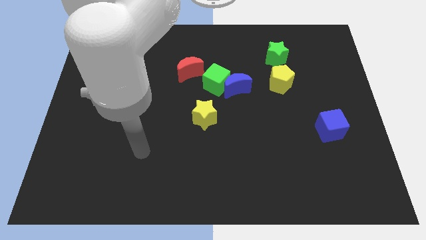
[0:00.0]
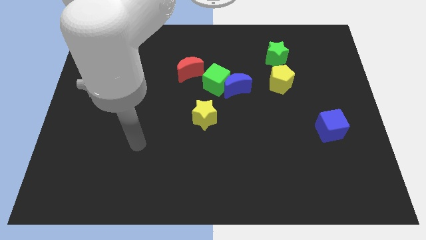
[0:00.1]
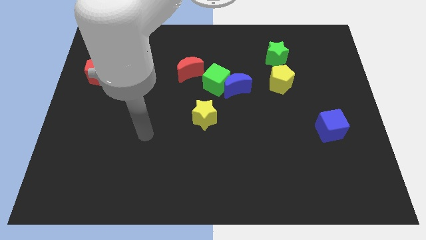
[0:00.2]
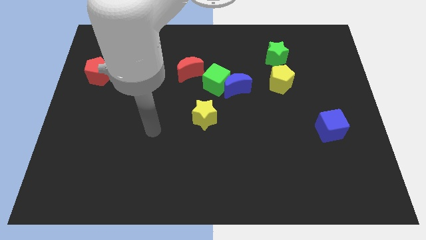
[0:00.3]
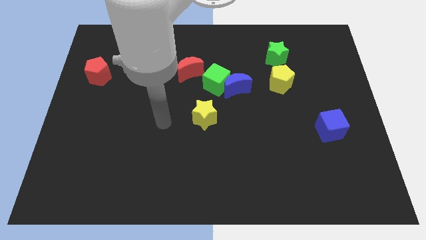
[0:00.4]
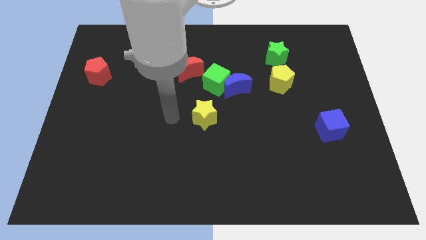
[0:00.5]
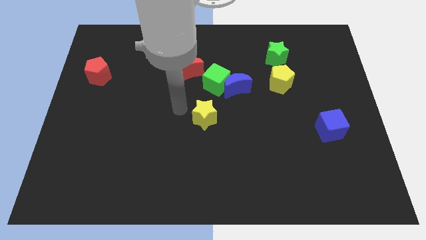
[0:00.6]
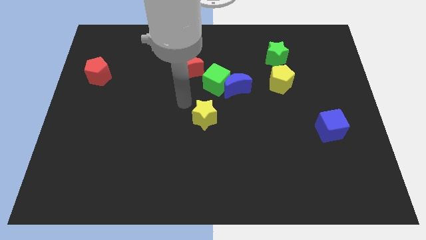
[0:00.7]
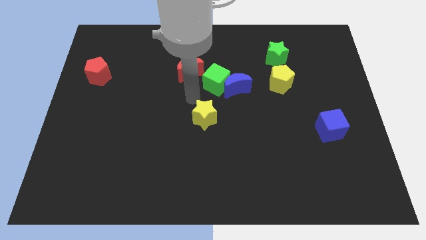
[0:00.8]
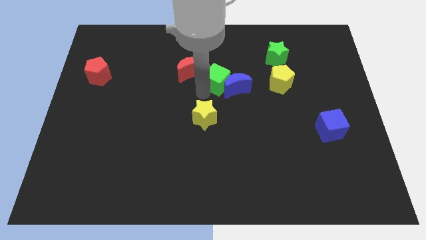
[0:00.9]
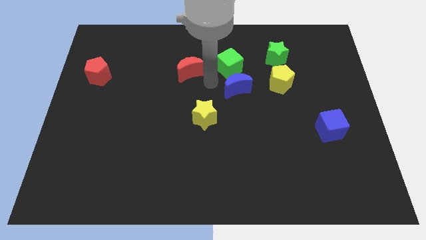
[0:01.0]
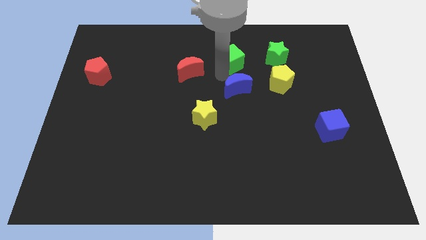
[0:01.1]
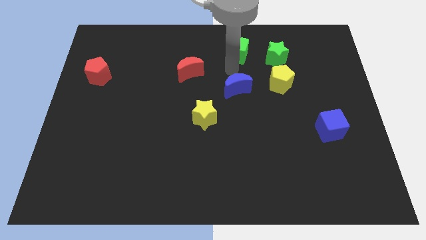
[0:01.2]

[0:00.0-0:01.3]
pull the blue moon apart from the green cube

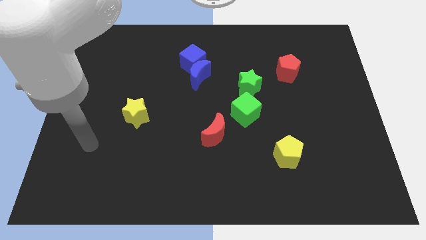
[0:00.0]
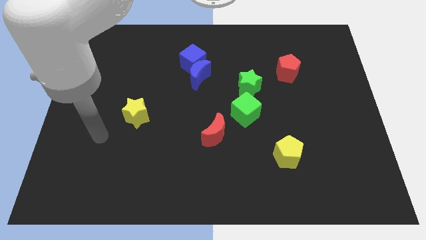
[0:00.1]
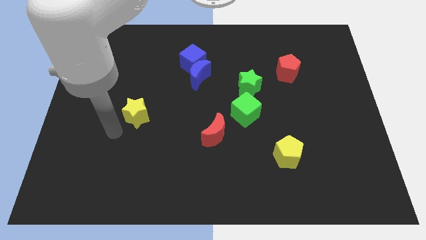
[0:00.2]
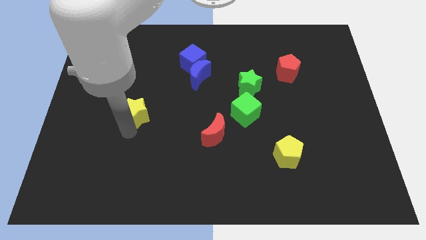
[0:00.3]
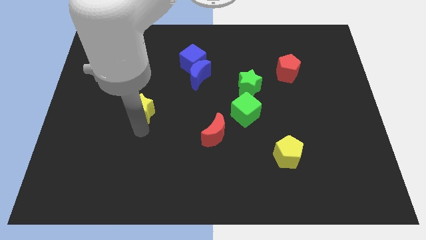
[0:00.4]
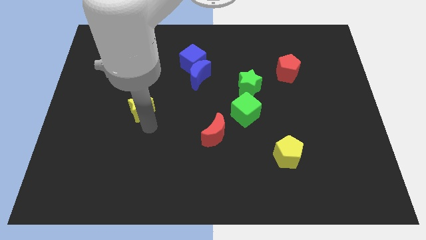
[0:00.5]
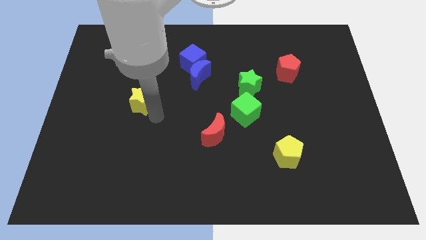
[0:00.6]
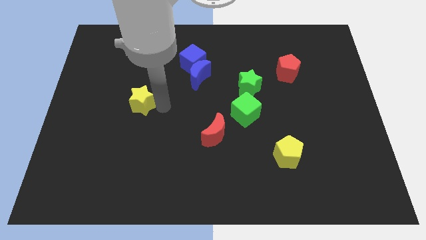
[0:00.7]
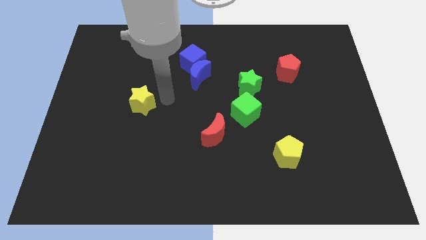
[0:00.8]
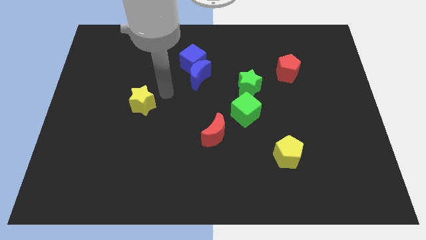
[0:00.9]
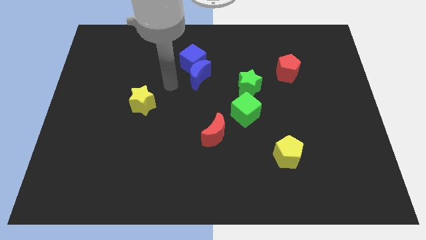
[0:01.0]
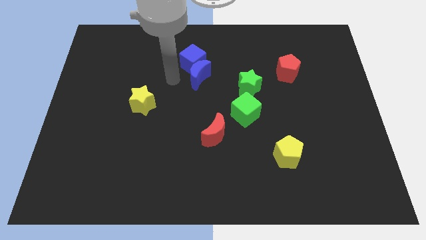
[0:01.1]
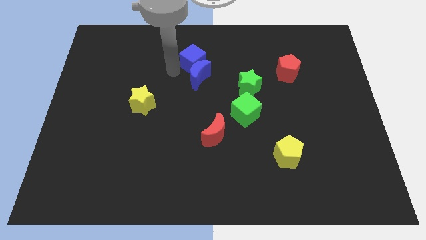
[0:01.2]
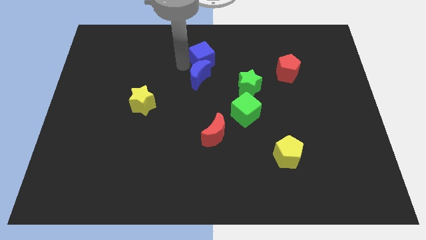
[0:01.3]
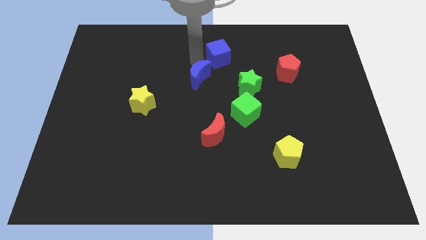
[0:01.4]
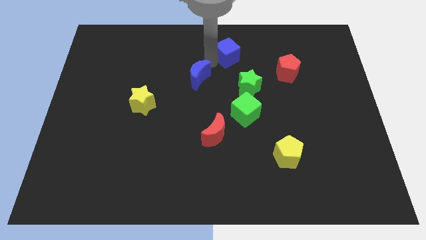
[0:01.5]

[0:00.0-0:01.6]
pull the blue moon apart from the blue cube

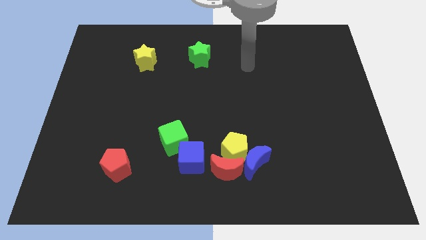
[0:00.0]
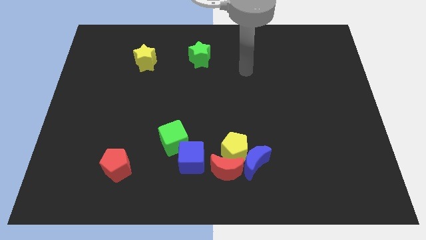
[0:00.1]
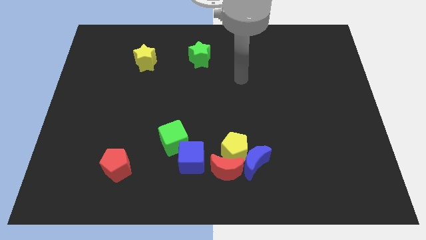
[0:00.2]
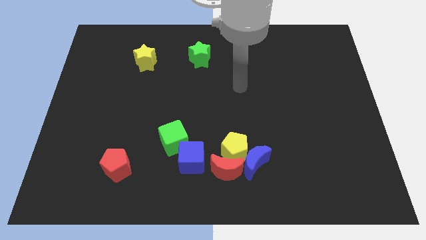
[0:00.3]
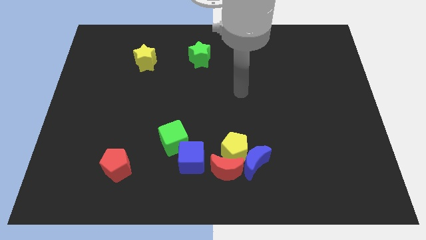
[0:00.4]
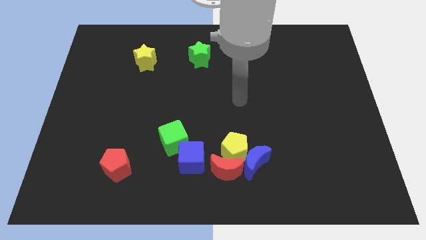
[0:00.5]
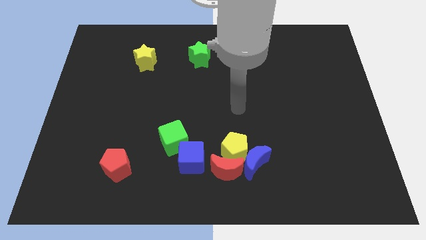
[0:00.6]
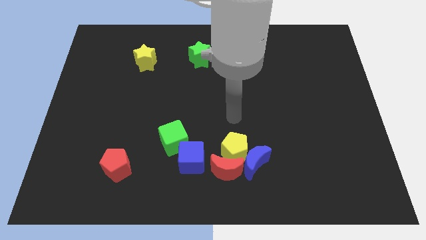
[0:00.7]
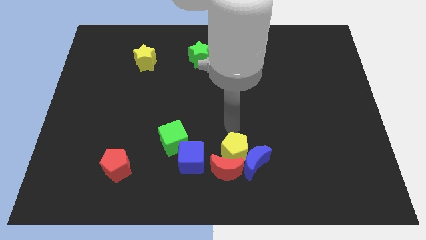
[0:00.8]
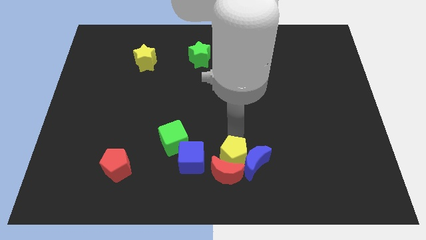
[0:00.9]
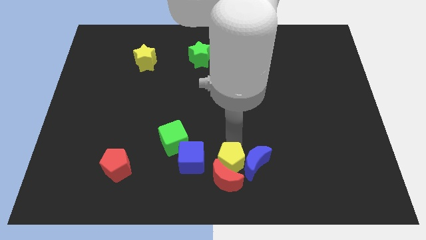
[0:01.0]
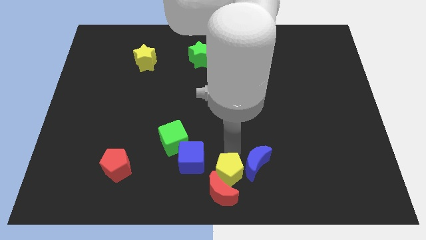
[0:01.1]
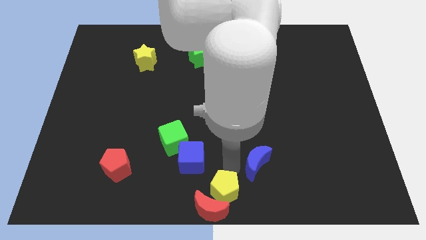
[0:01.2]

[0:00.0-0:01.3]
move the blue moon away from the yellow pentagon and red moon

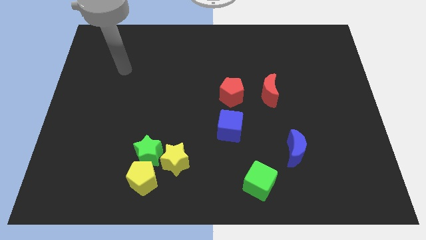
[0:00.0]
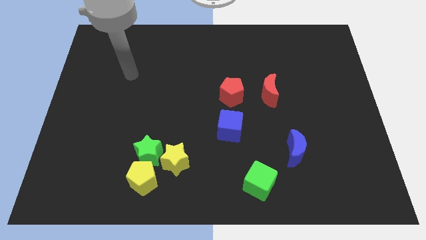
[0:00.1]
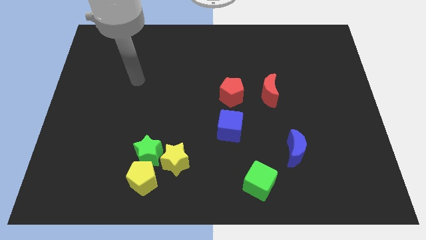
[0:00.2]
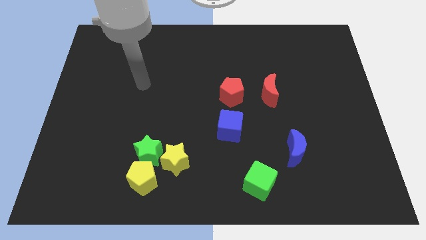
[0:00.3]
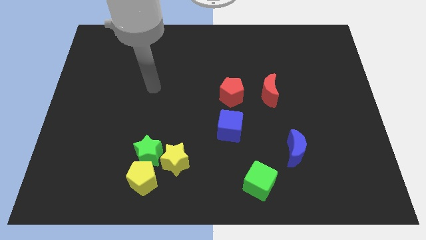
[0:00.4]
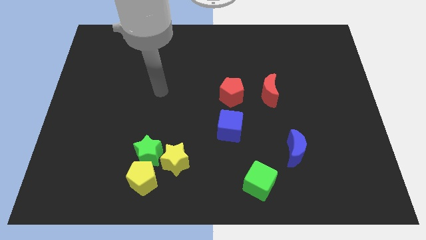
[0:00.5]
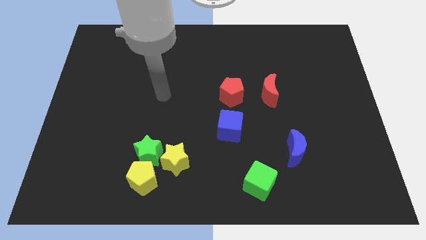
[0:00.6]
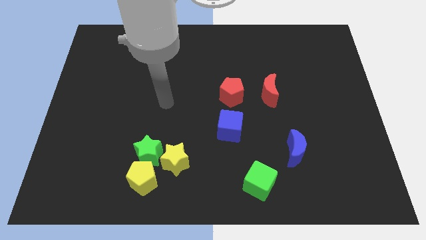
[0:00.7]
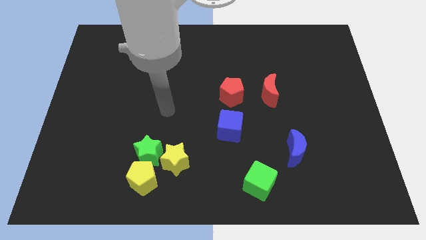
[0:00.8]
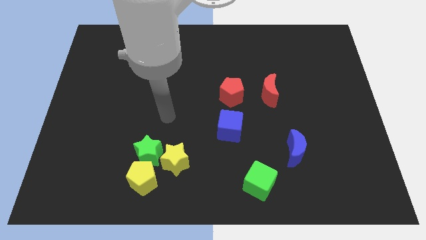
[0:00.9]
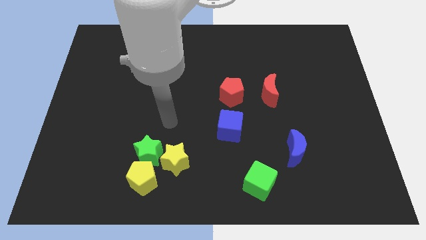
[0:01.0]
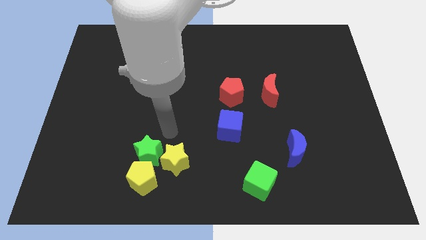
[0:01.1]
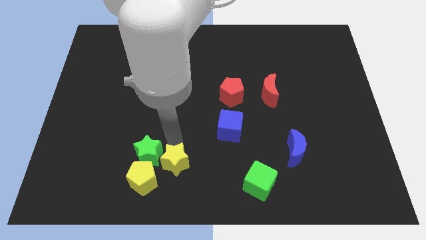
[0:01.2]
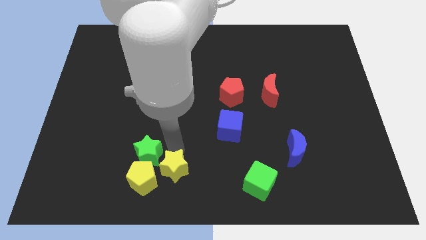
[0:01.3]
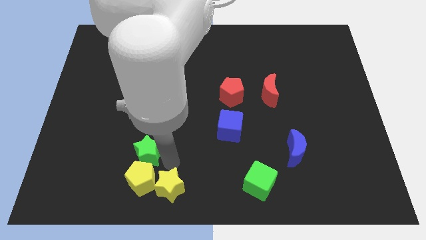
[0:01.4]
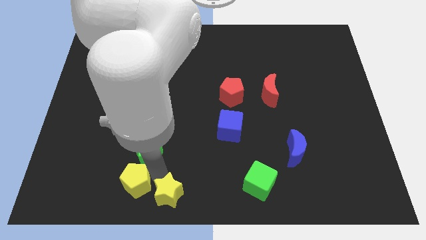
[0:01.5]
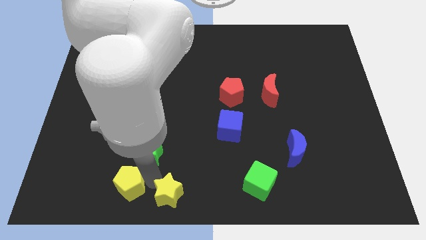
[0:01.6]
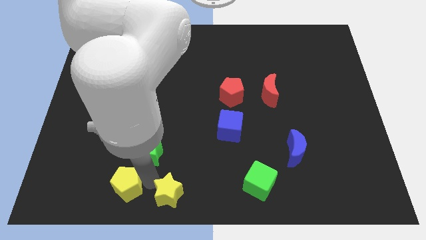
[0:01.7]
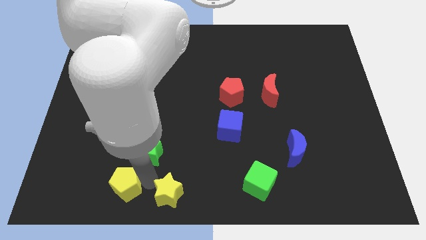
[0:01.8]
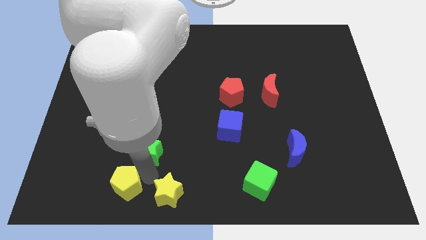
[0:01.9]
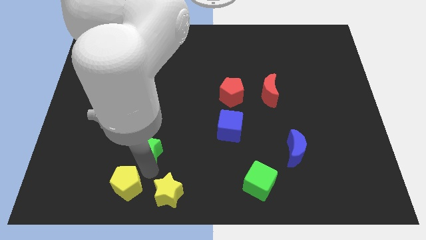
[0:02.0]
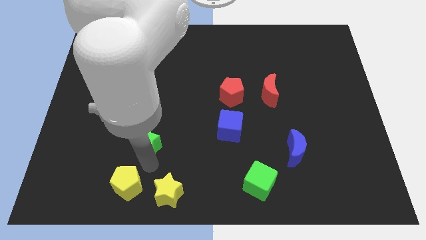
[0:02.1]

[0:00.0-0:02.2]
separate the green star from the yellow star and yellow pentagon

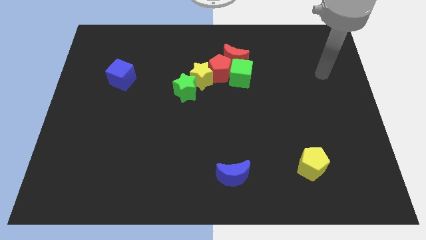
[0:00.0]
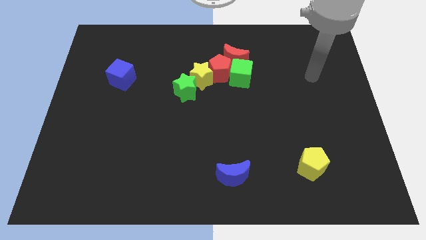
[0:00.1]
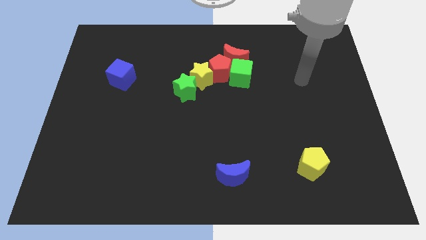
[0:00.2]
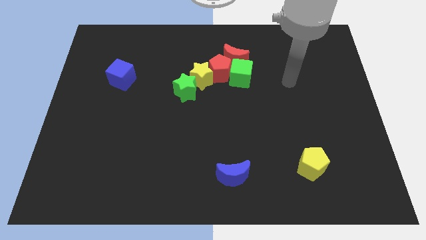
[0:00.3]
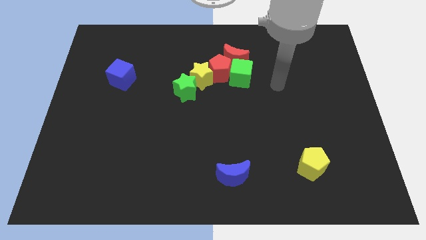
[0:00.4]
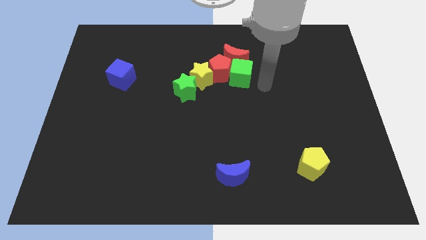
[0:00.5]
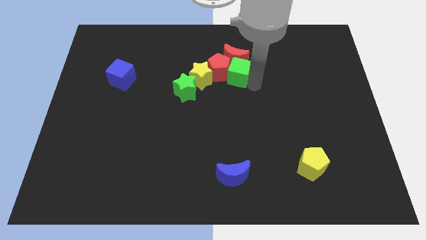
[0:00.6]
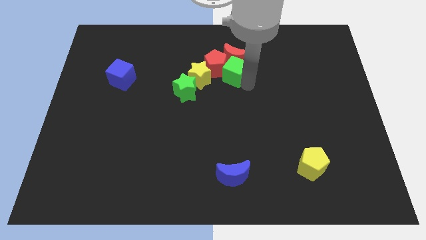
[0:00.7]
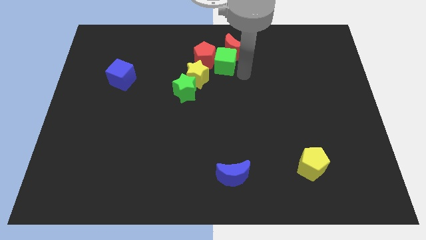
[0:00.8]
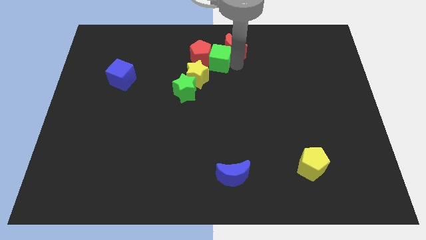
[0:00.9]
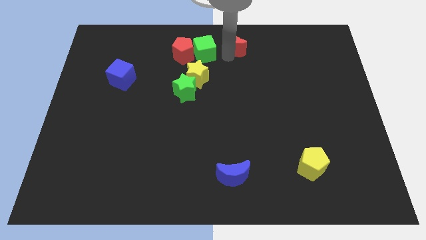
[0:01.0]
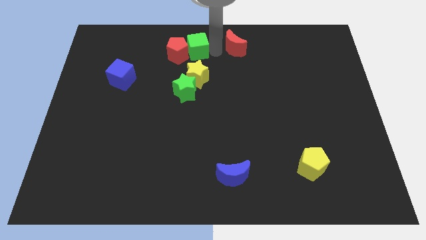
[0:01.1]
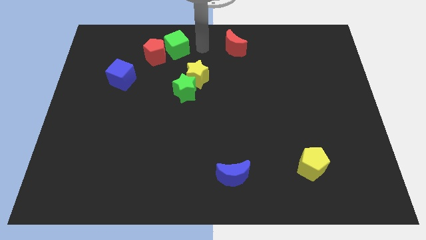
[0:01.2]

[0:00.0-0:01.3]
pull the red pentagon apart from the clump

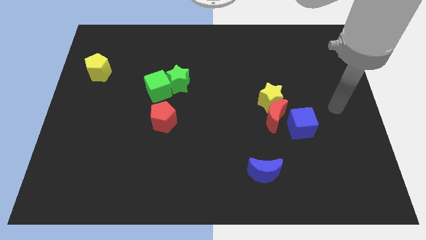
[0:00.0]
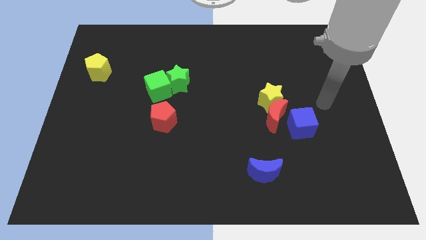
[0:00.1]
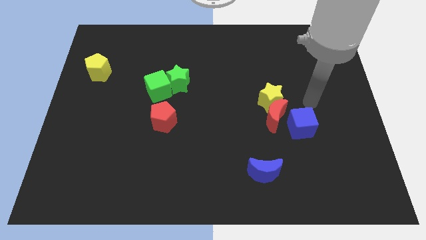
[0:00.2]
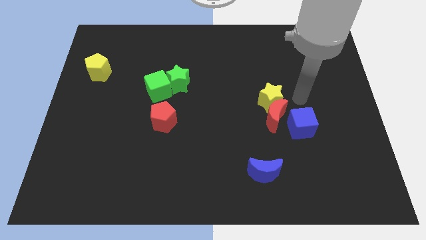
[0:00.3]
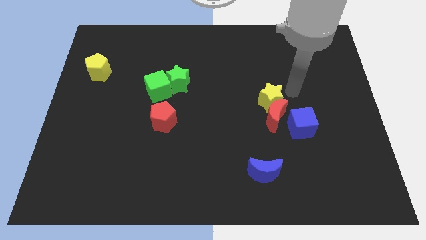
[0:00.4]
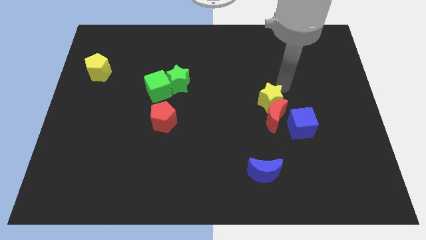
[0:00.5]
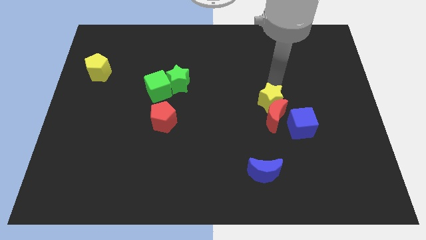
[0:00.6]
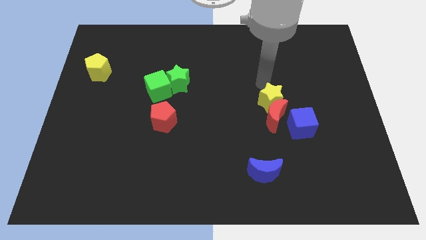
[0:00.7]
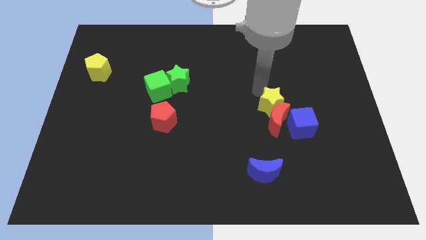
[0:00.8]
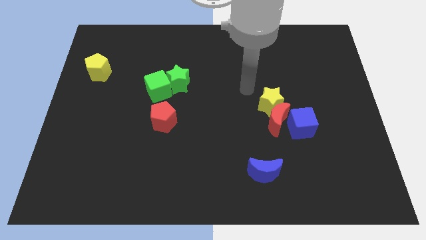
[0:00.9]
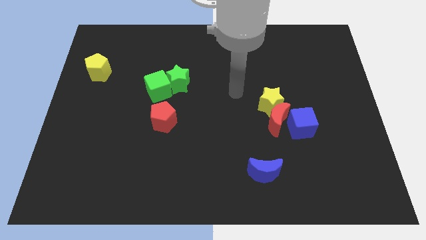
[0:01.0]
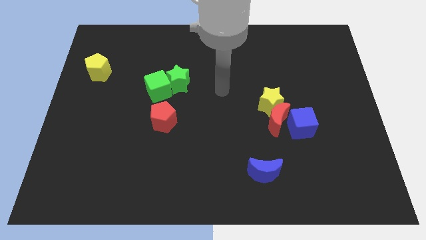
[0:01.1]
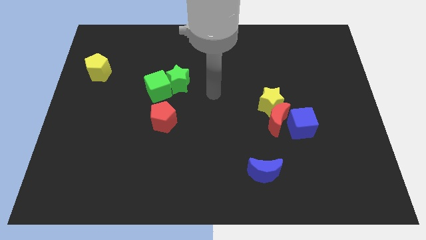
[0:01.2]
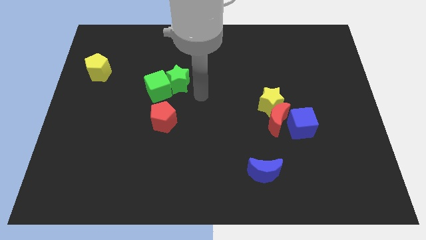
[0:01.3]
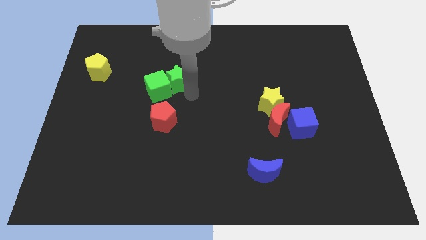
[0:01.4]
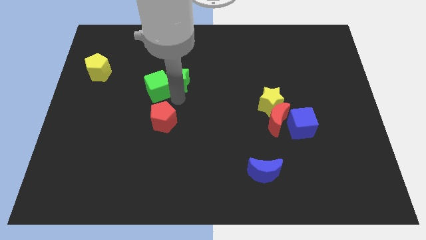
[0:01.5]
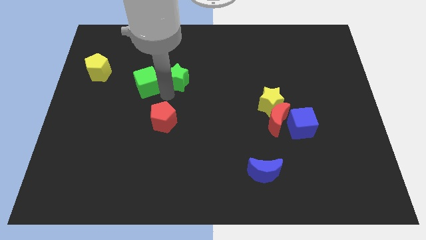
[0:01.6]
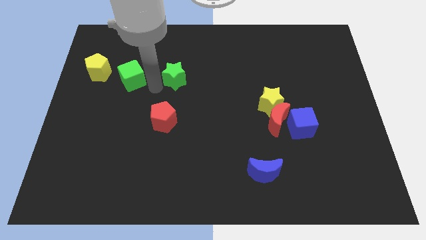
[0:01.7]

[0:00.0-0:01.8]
pull the green star apart from the green cube
